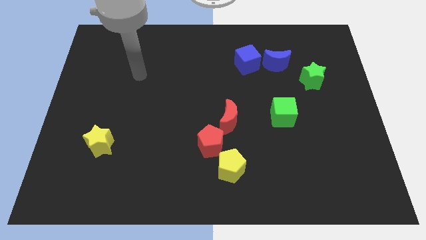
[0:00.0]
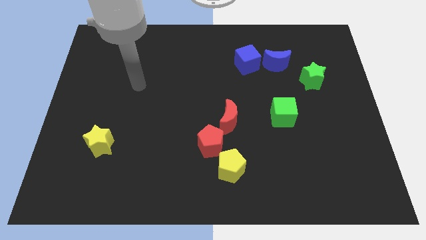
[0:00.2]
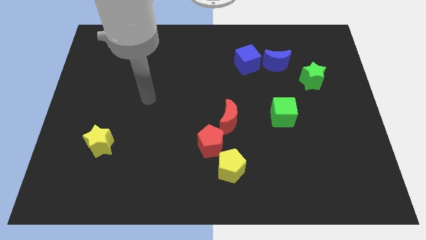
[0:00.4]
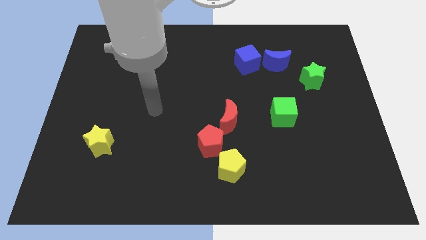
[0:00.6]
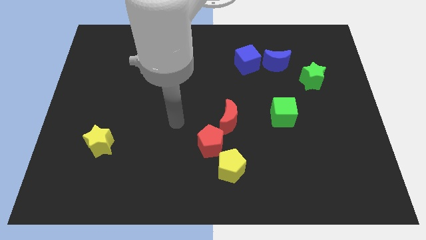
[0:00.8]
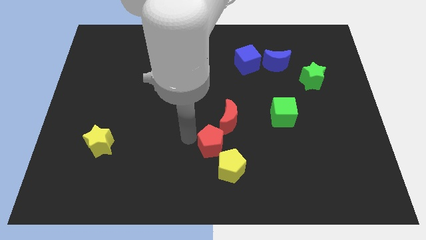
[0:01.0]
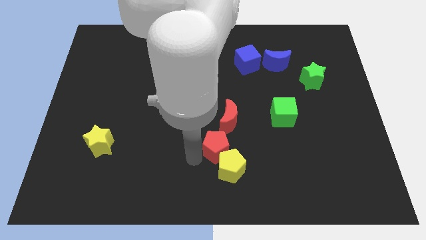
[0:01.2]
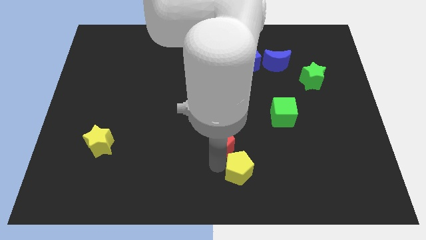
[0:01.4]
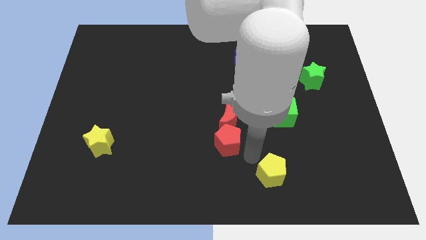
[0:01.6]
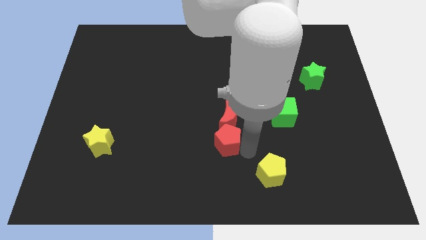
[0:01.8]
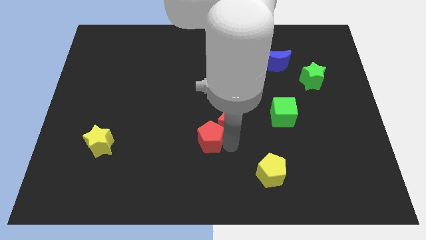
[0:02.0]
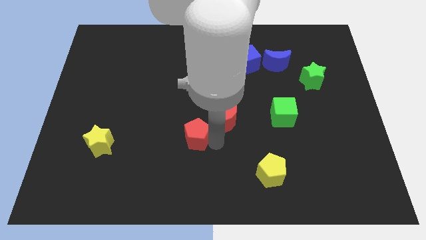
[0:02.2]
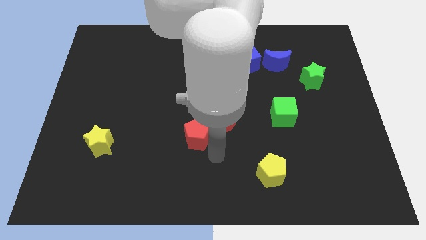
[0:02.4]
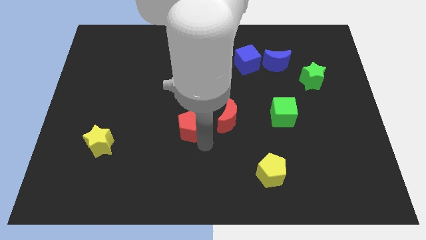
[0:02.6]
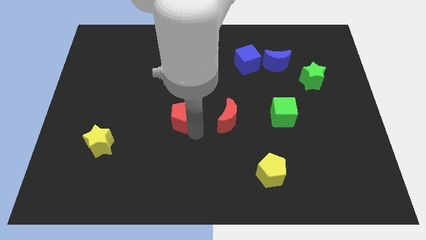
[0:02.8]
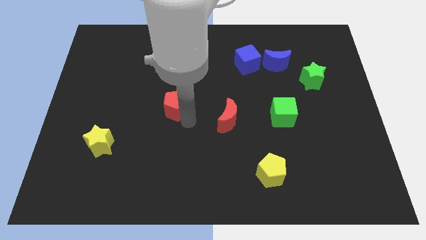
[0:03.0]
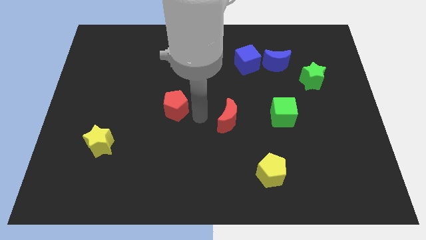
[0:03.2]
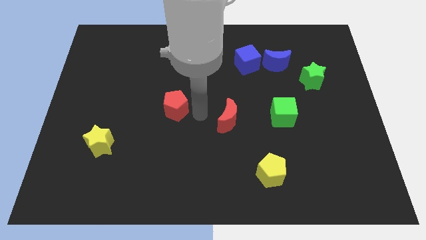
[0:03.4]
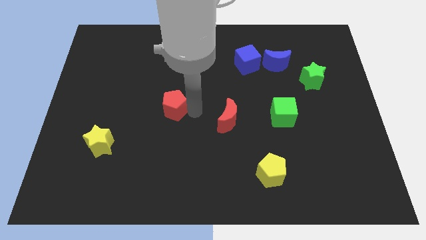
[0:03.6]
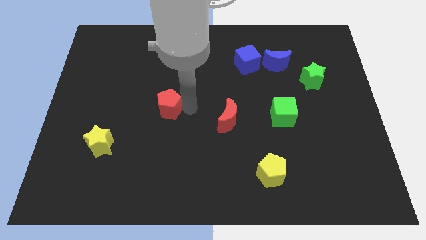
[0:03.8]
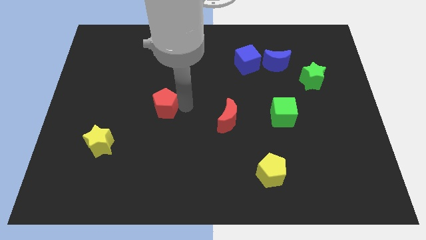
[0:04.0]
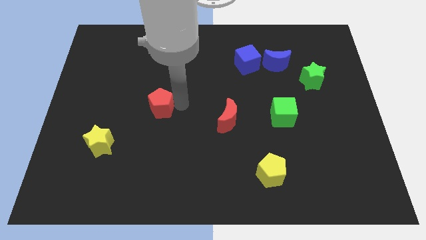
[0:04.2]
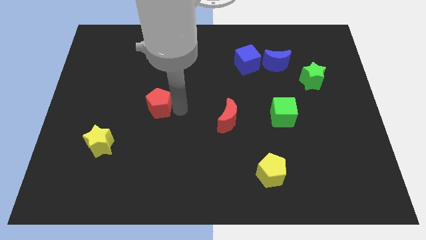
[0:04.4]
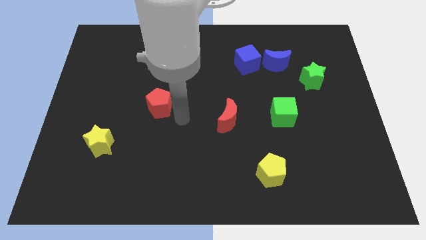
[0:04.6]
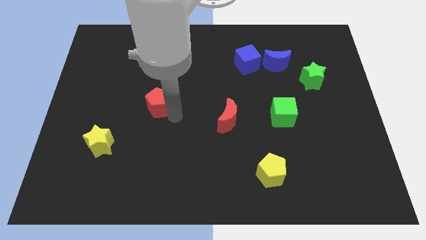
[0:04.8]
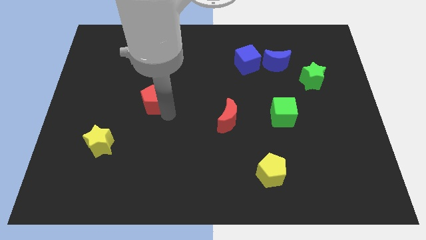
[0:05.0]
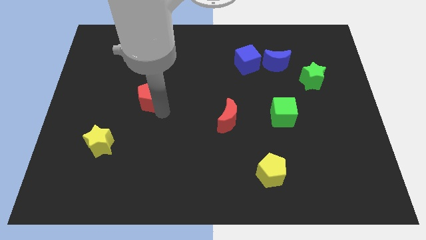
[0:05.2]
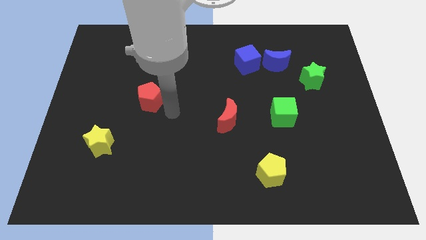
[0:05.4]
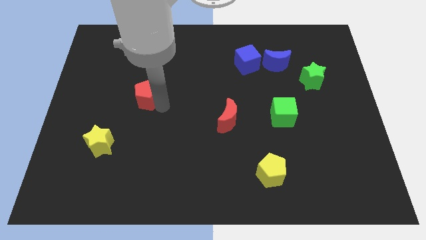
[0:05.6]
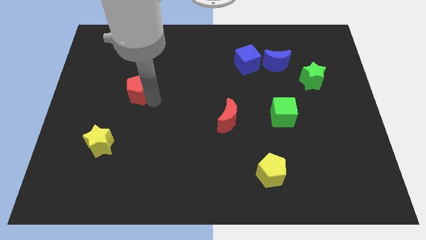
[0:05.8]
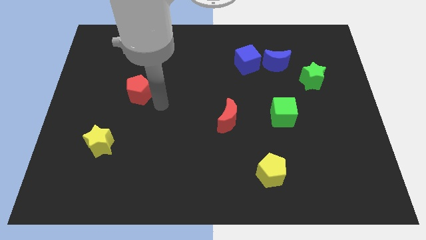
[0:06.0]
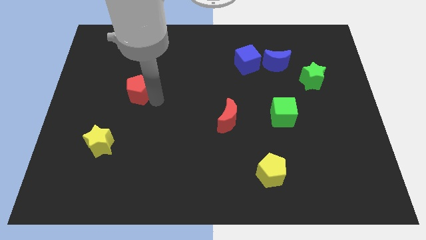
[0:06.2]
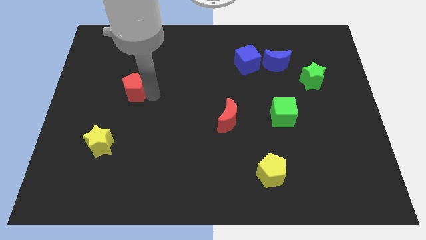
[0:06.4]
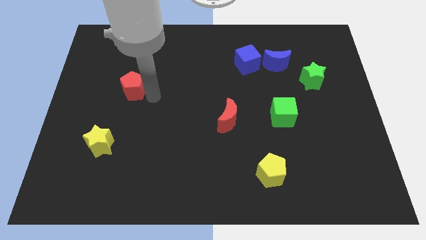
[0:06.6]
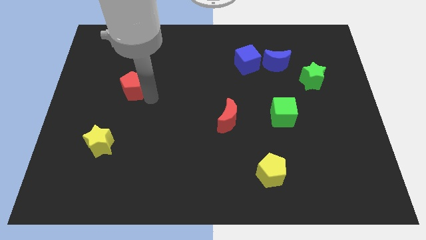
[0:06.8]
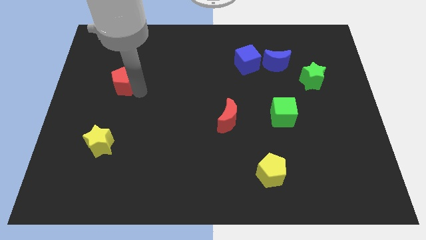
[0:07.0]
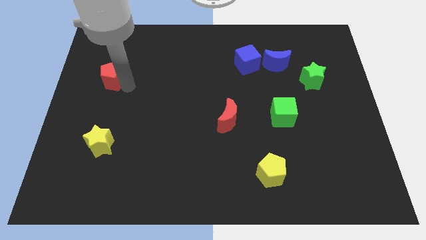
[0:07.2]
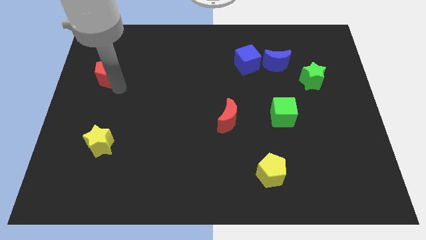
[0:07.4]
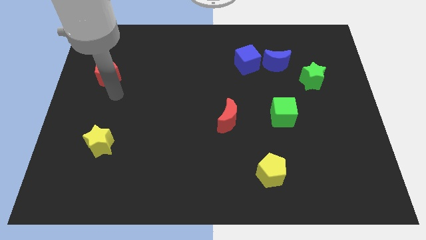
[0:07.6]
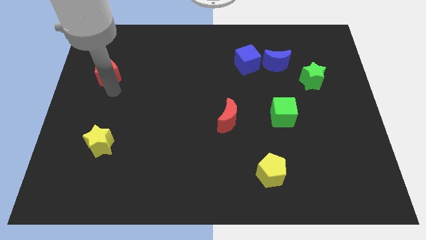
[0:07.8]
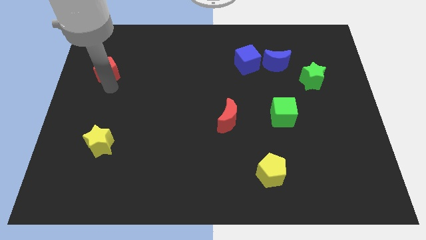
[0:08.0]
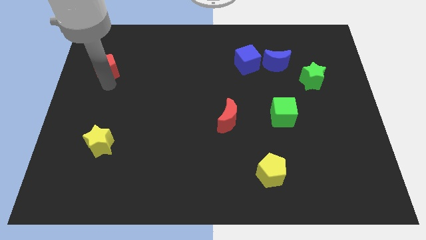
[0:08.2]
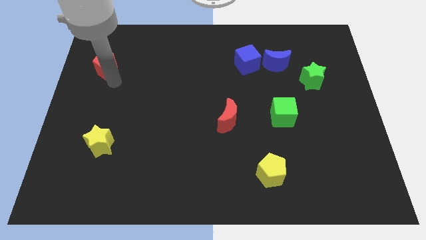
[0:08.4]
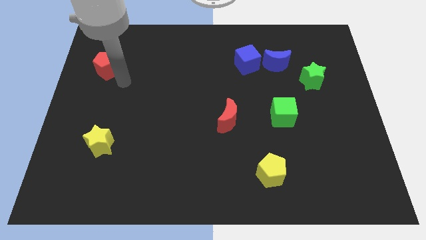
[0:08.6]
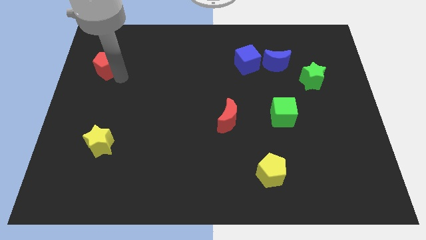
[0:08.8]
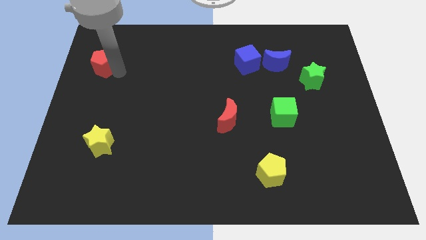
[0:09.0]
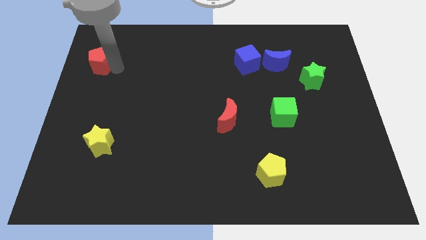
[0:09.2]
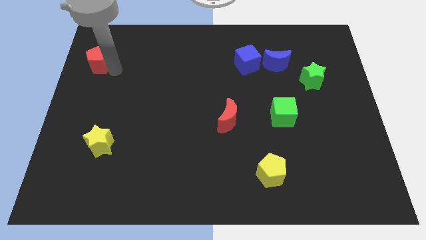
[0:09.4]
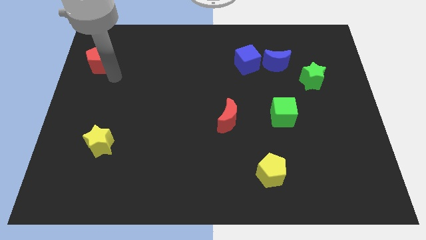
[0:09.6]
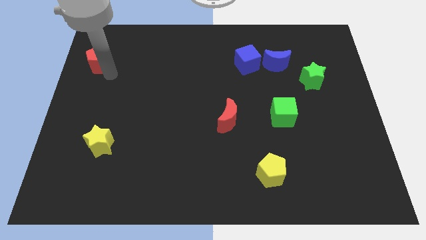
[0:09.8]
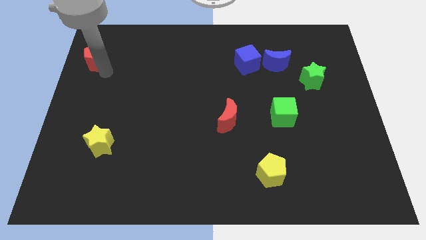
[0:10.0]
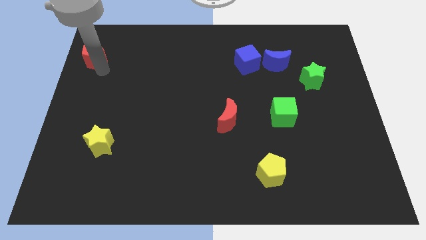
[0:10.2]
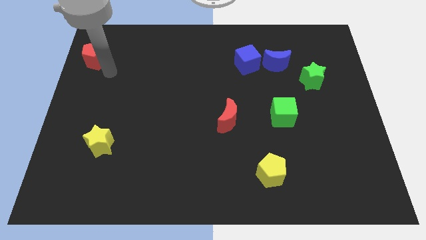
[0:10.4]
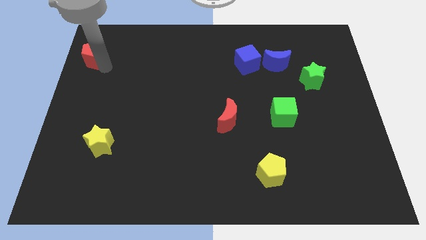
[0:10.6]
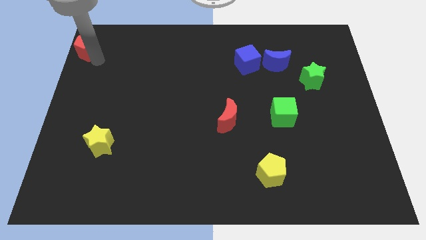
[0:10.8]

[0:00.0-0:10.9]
slide the red pentagon to the top left

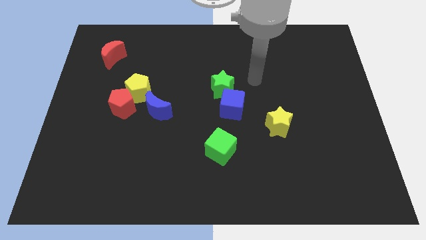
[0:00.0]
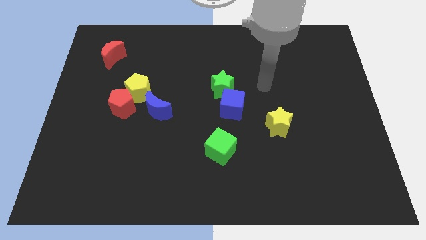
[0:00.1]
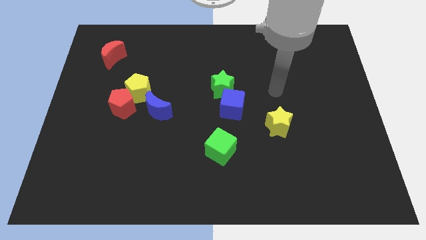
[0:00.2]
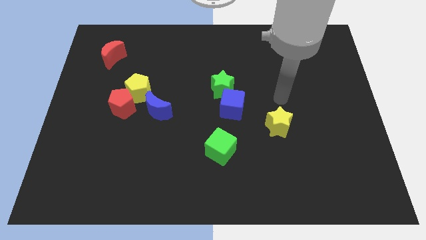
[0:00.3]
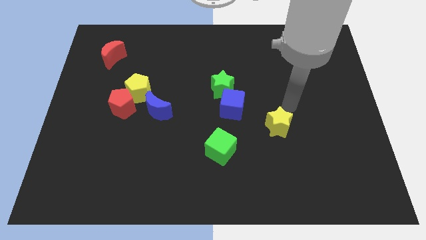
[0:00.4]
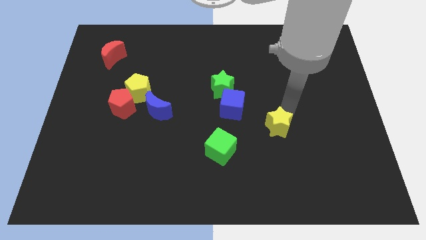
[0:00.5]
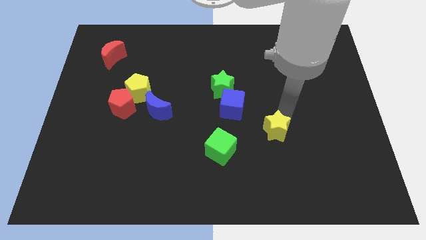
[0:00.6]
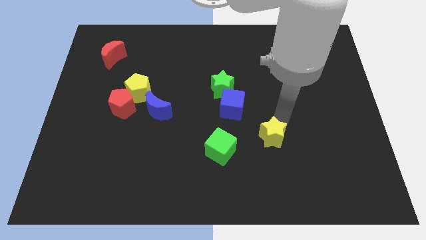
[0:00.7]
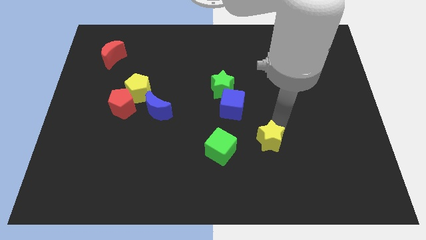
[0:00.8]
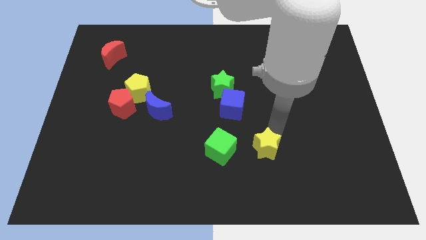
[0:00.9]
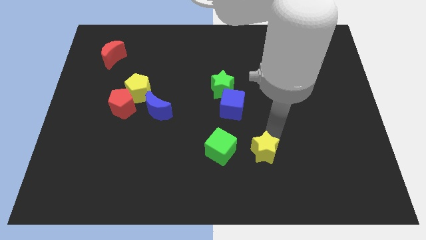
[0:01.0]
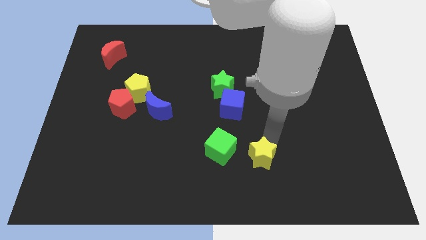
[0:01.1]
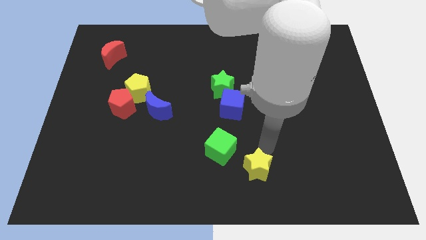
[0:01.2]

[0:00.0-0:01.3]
put the yellow star to the bottom
